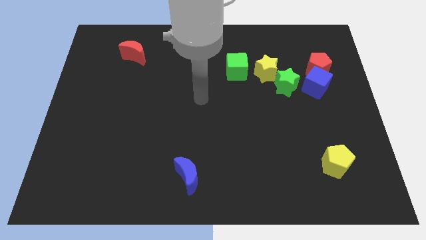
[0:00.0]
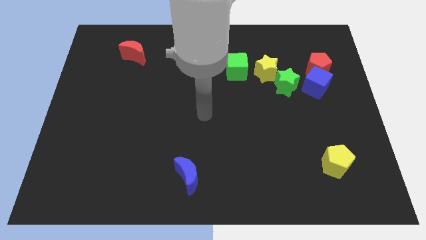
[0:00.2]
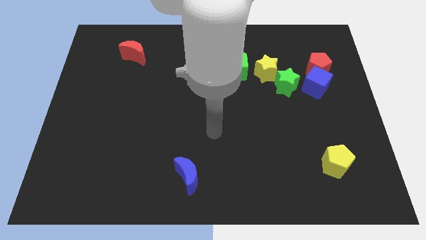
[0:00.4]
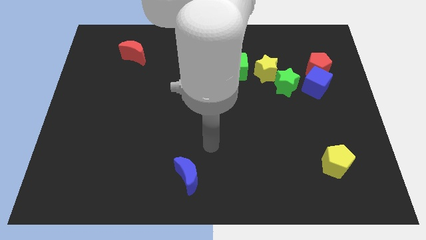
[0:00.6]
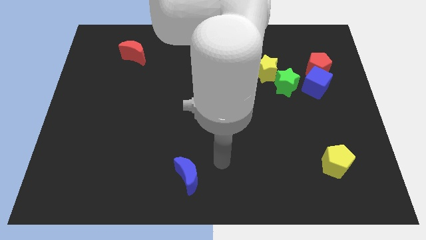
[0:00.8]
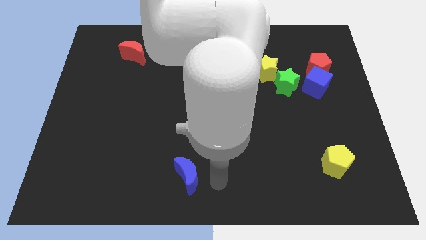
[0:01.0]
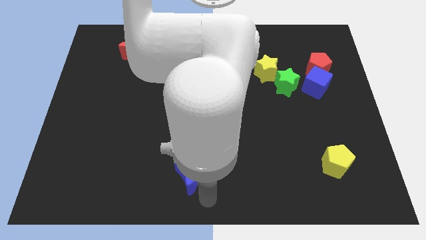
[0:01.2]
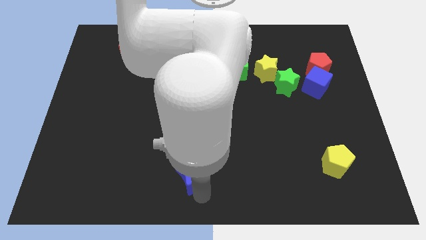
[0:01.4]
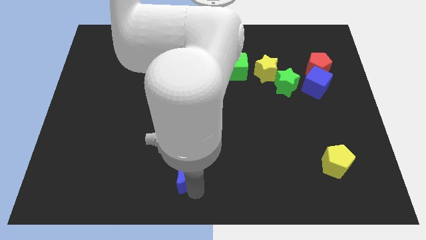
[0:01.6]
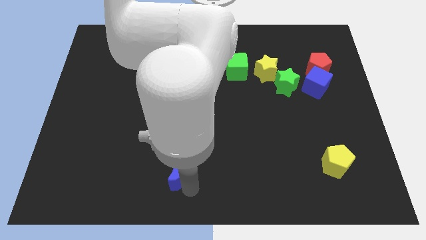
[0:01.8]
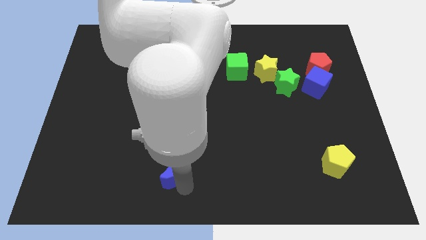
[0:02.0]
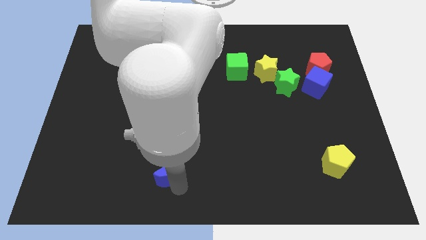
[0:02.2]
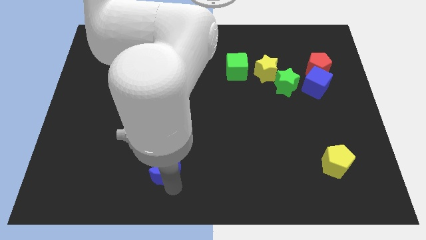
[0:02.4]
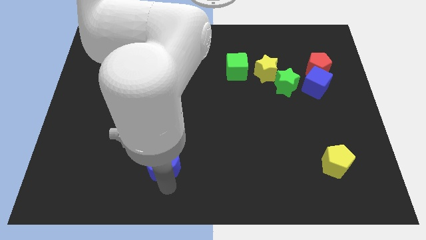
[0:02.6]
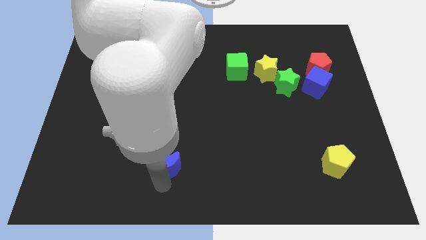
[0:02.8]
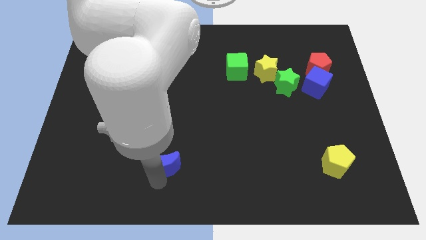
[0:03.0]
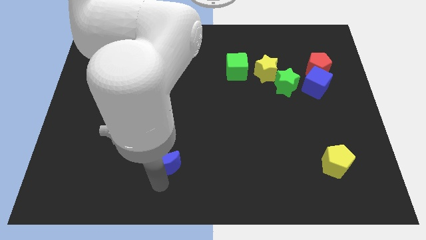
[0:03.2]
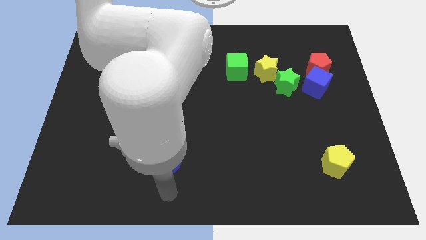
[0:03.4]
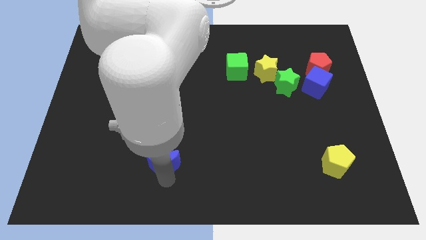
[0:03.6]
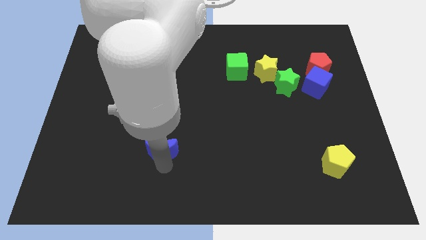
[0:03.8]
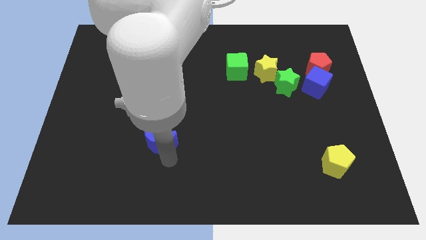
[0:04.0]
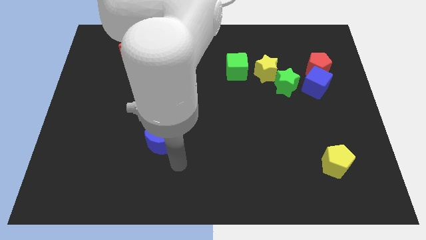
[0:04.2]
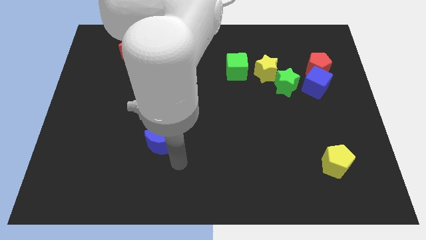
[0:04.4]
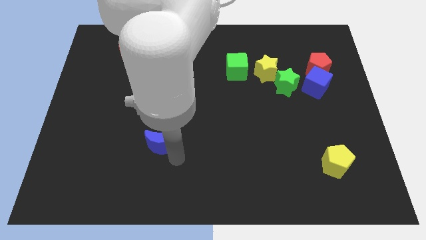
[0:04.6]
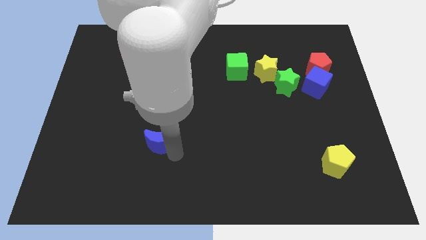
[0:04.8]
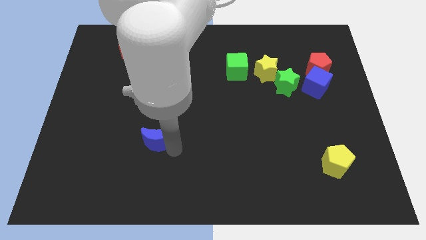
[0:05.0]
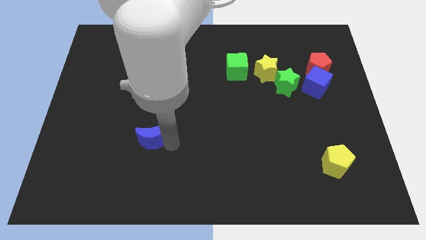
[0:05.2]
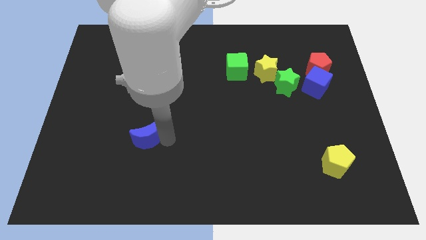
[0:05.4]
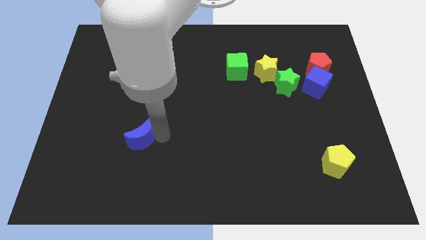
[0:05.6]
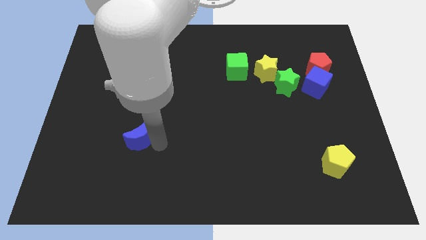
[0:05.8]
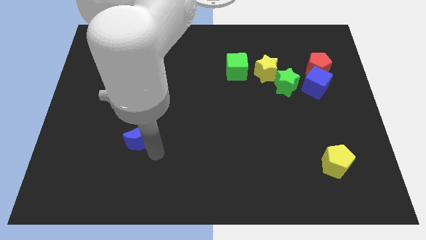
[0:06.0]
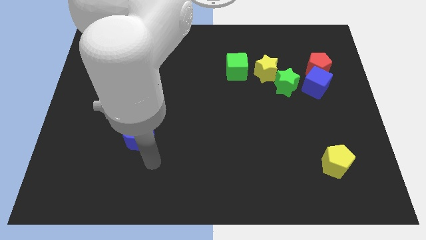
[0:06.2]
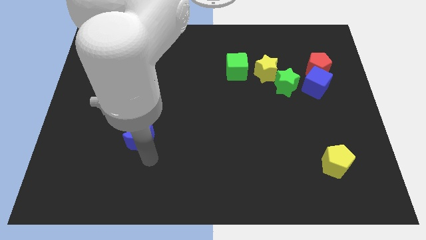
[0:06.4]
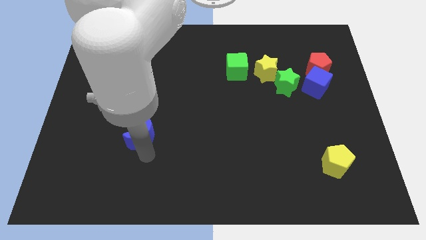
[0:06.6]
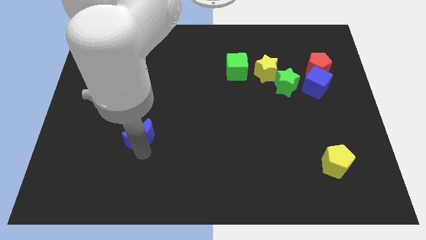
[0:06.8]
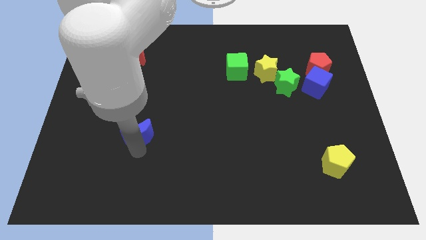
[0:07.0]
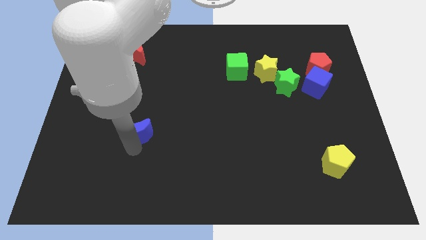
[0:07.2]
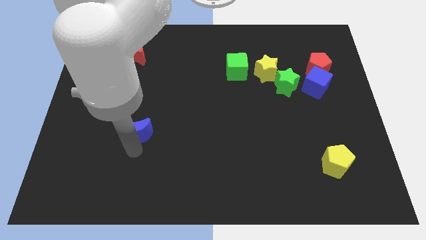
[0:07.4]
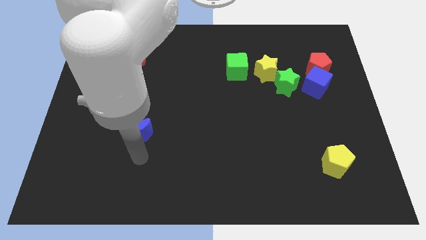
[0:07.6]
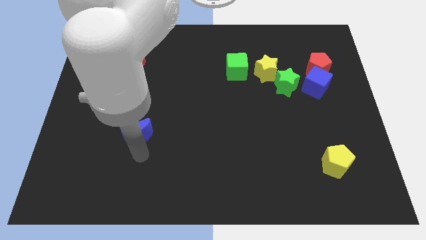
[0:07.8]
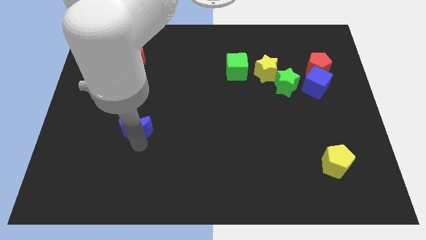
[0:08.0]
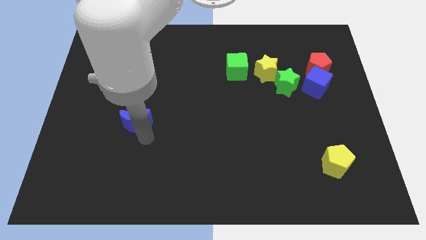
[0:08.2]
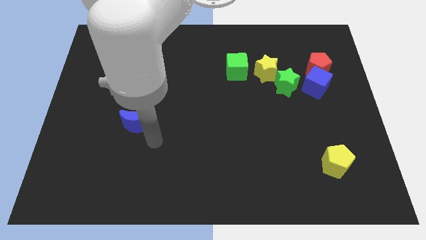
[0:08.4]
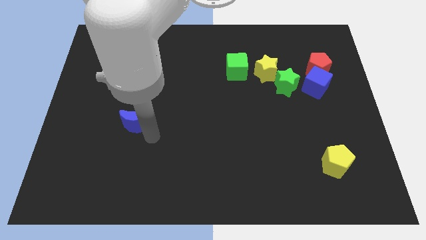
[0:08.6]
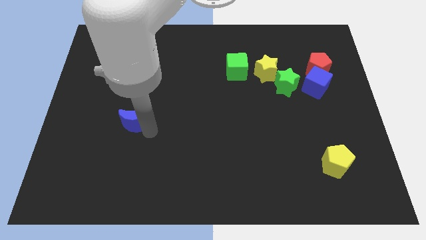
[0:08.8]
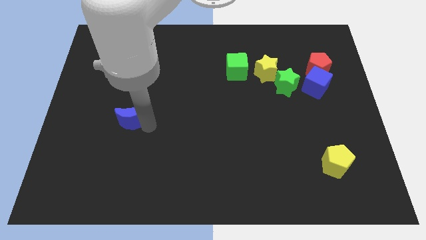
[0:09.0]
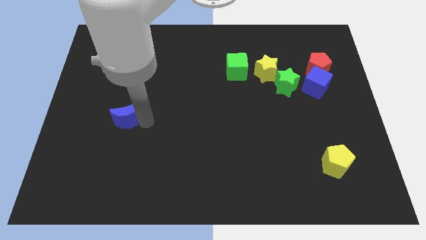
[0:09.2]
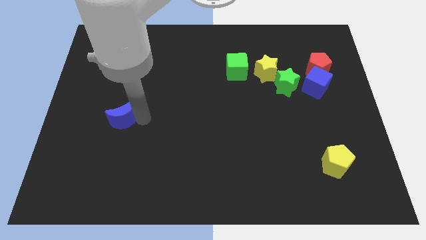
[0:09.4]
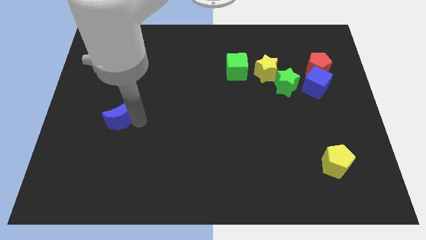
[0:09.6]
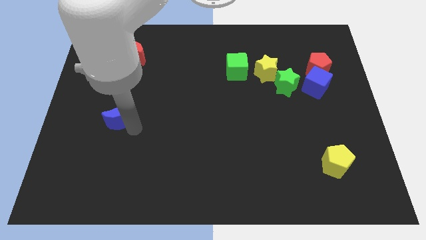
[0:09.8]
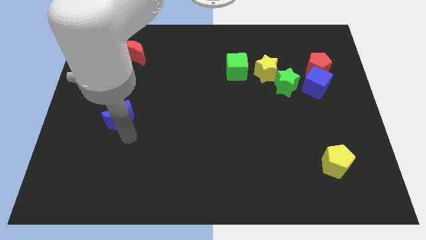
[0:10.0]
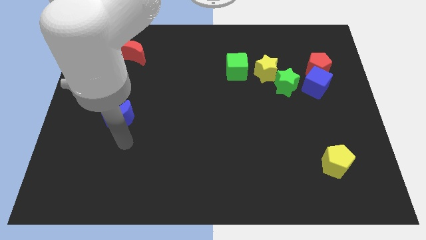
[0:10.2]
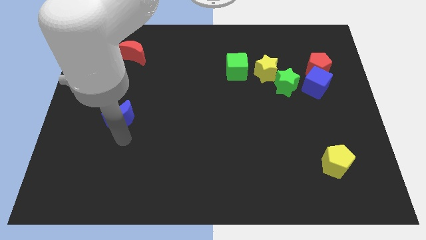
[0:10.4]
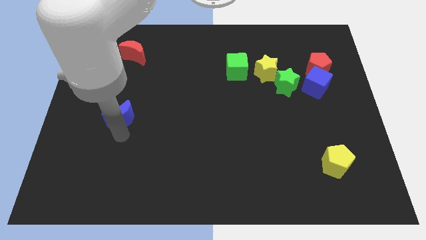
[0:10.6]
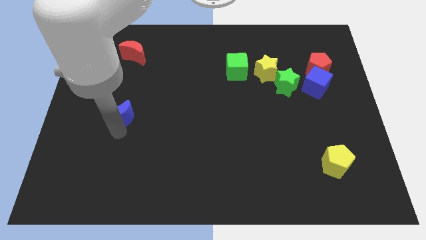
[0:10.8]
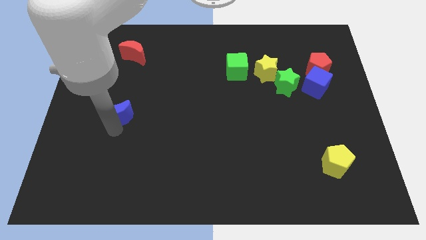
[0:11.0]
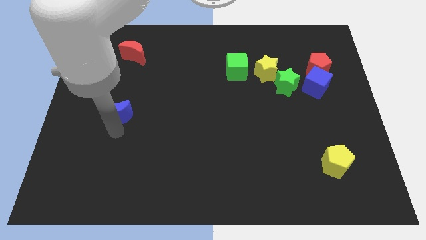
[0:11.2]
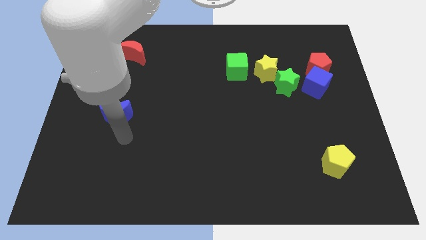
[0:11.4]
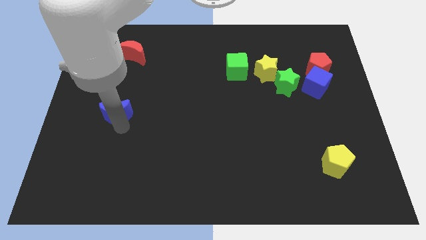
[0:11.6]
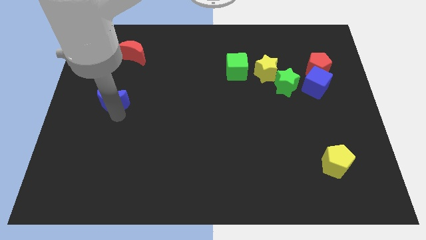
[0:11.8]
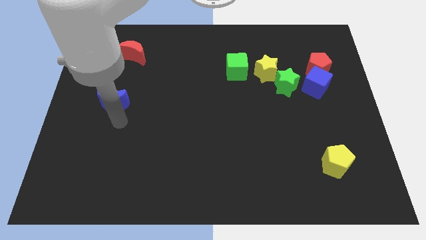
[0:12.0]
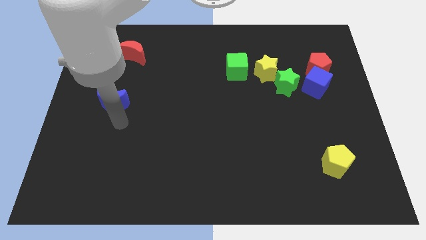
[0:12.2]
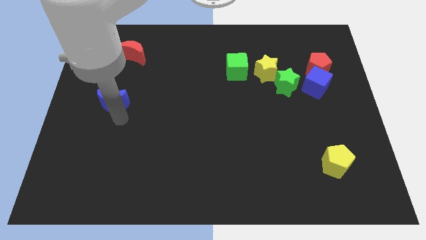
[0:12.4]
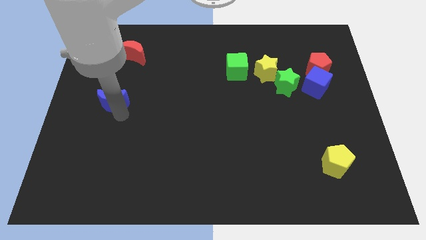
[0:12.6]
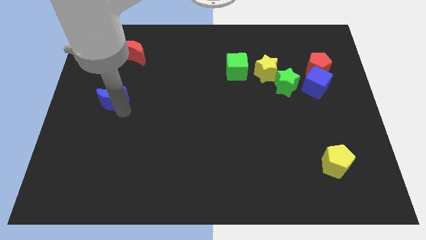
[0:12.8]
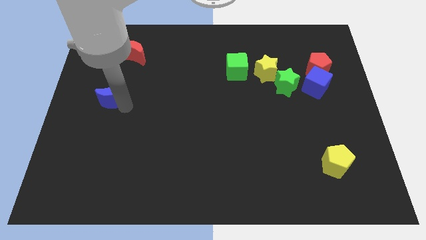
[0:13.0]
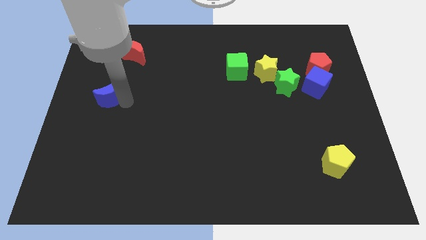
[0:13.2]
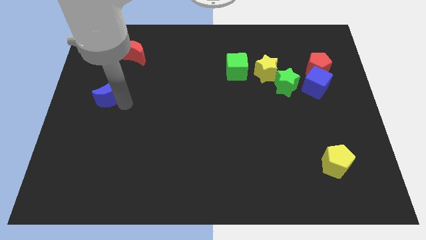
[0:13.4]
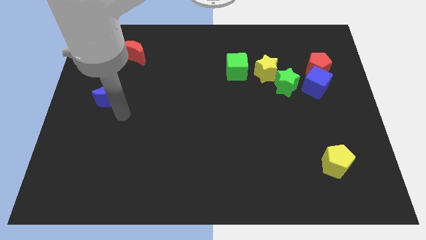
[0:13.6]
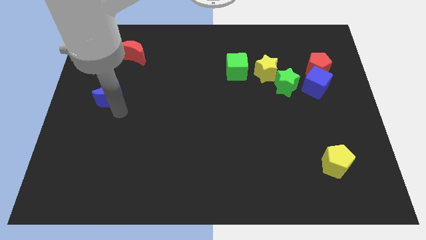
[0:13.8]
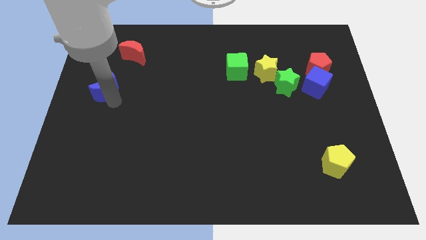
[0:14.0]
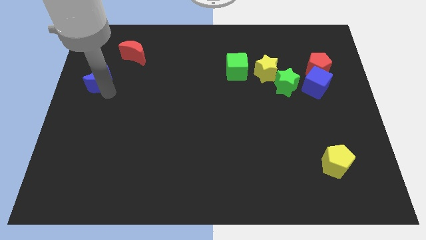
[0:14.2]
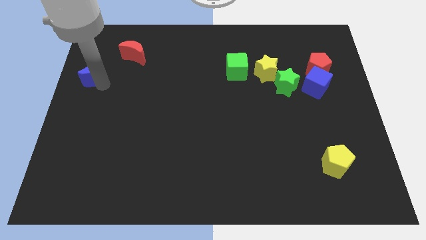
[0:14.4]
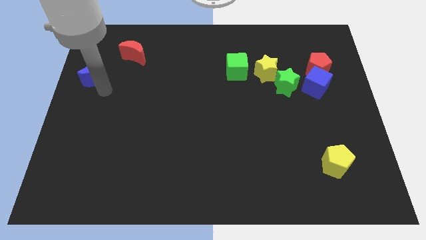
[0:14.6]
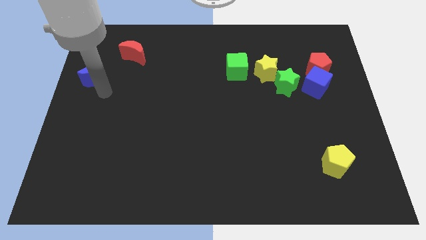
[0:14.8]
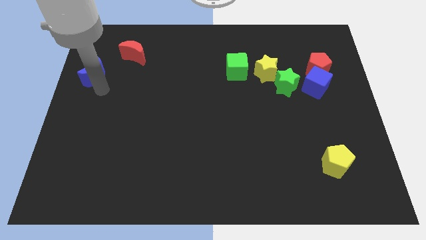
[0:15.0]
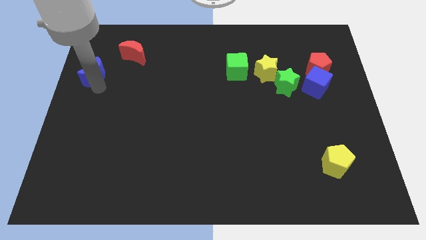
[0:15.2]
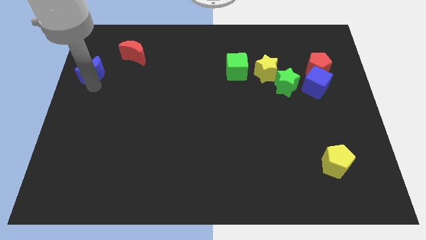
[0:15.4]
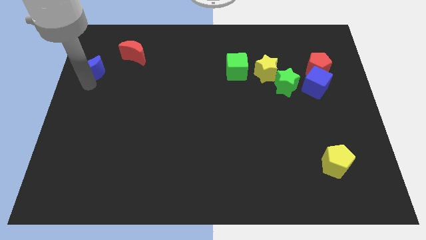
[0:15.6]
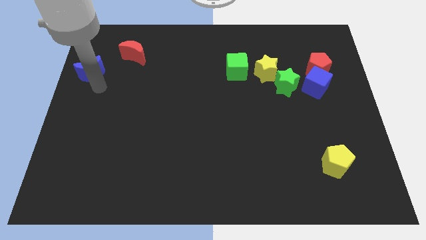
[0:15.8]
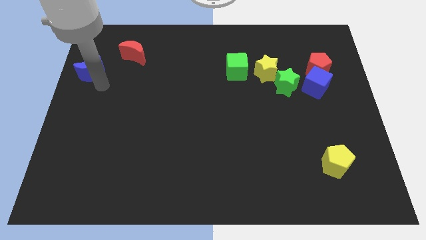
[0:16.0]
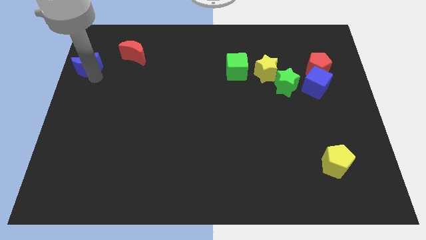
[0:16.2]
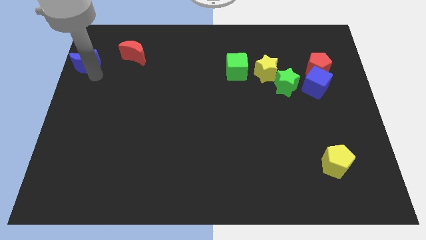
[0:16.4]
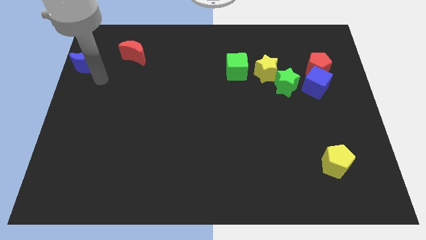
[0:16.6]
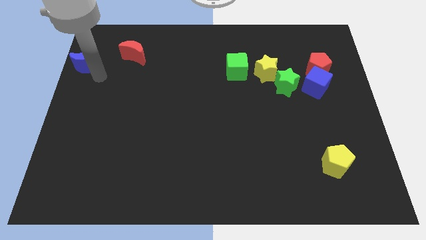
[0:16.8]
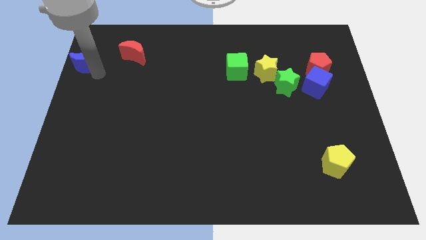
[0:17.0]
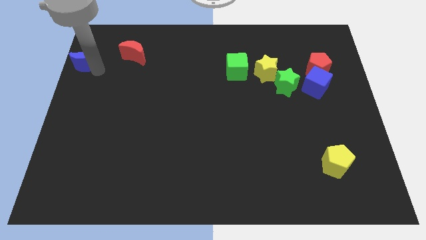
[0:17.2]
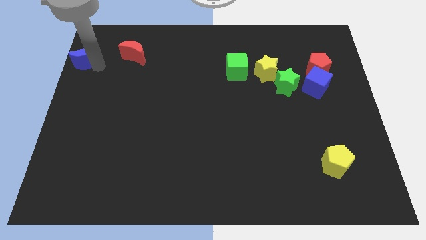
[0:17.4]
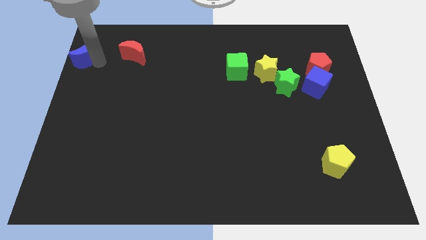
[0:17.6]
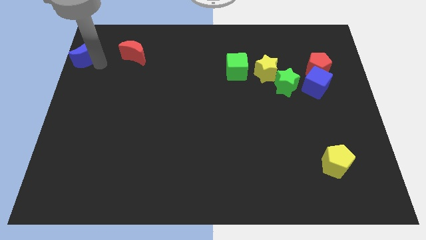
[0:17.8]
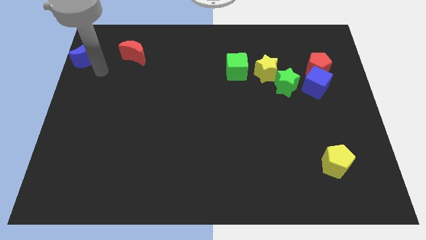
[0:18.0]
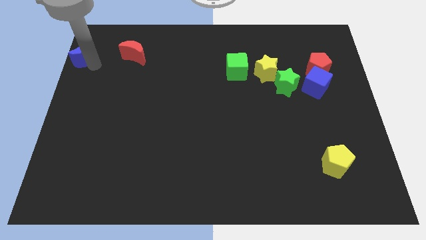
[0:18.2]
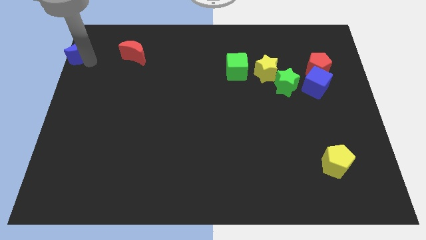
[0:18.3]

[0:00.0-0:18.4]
put the blue moon to the top left corner
